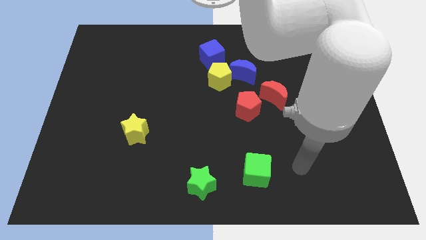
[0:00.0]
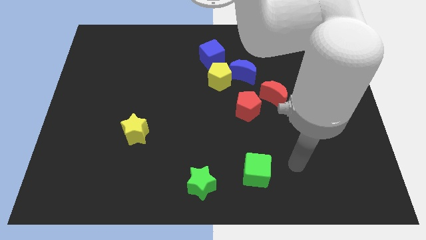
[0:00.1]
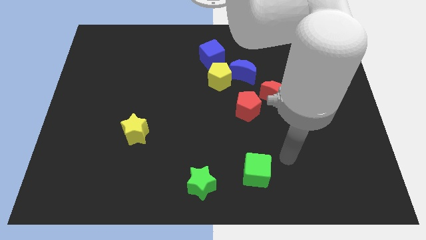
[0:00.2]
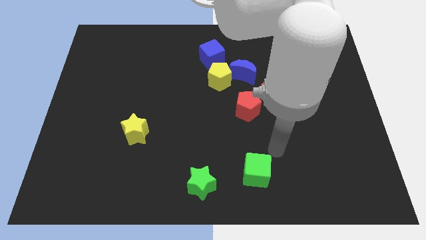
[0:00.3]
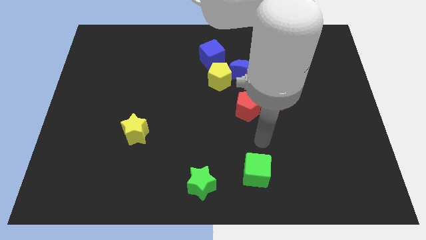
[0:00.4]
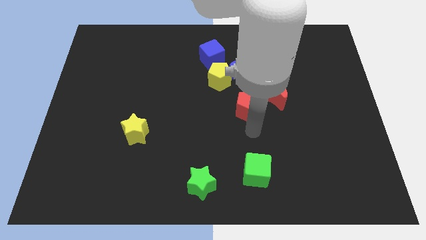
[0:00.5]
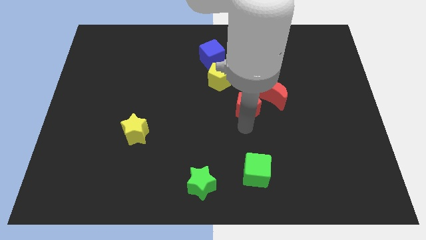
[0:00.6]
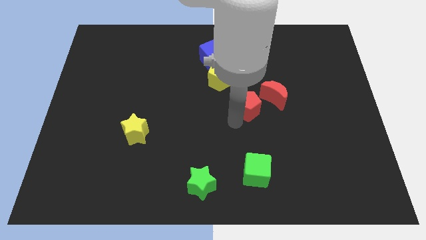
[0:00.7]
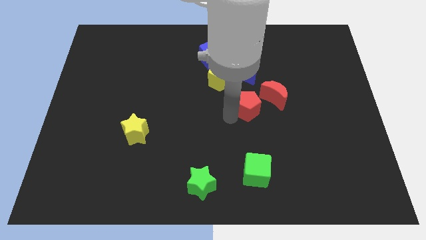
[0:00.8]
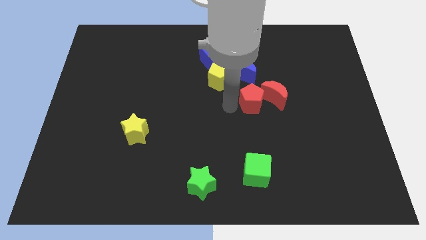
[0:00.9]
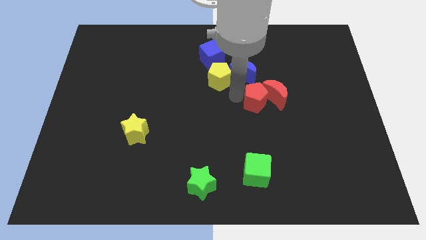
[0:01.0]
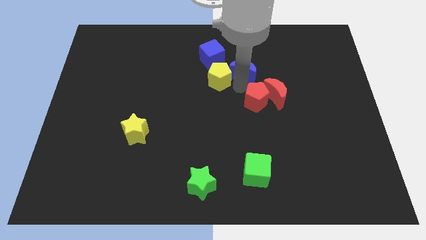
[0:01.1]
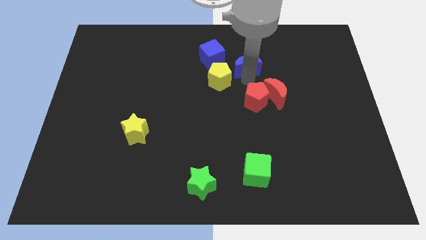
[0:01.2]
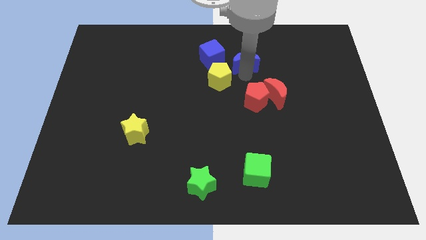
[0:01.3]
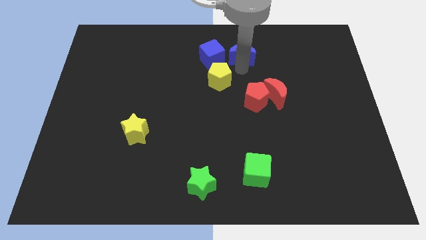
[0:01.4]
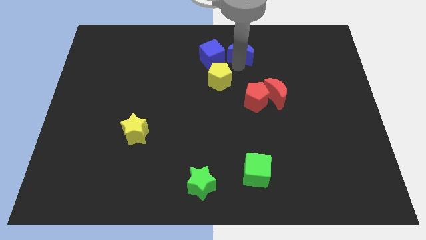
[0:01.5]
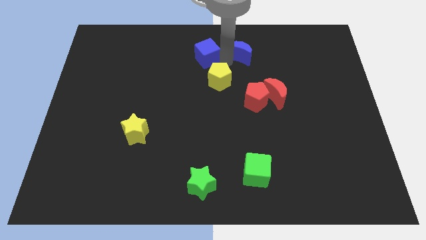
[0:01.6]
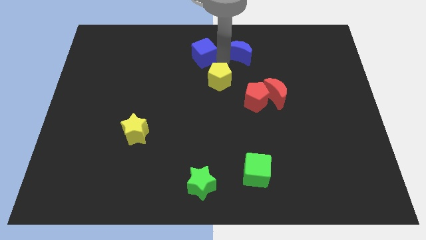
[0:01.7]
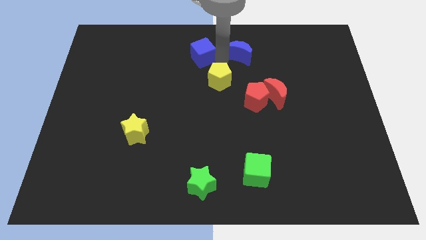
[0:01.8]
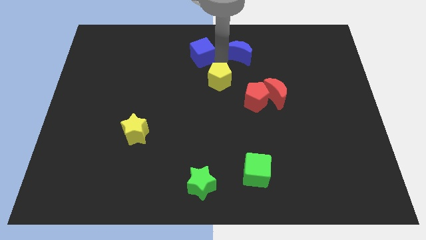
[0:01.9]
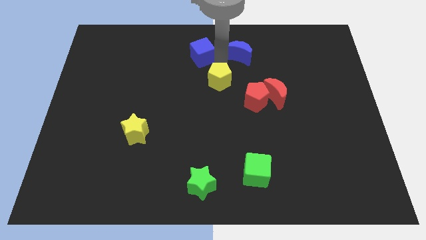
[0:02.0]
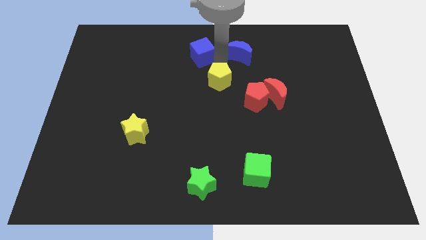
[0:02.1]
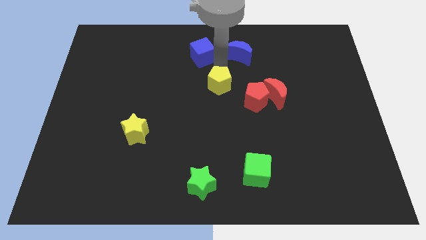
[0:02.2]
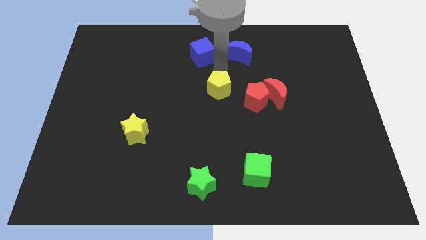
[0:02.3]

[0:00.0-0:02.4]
separate the yellow pentagon from the blue moon and blue cube

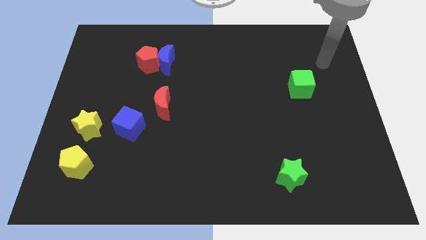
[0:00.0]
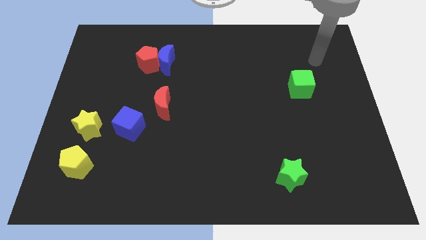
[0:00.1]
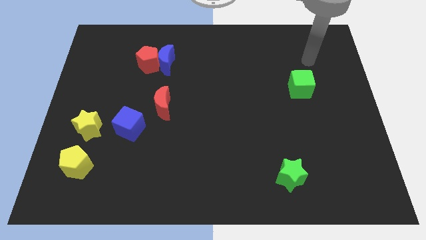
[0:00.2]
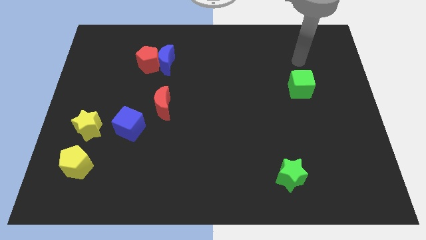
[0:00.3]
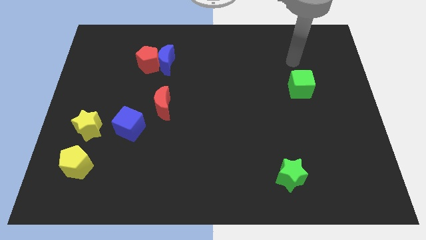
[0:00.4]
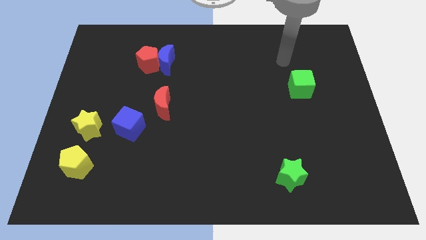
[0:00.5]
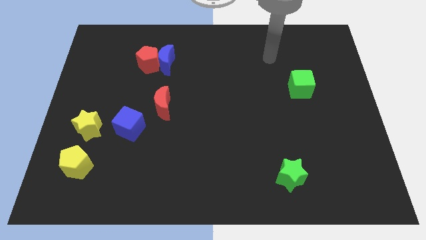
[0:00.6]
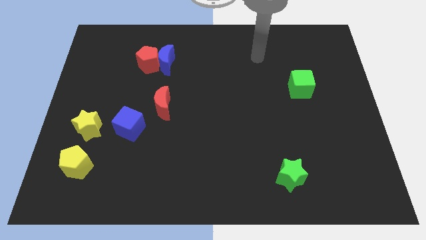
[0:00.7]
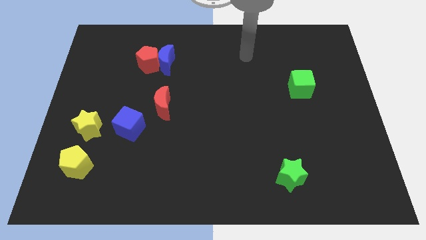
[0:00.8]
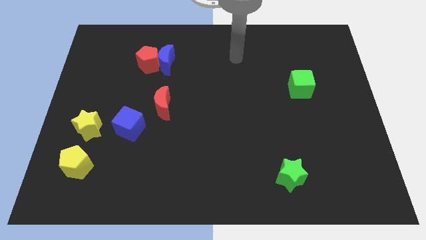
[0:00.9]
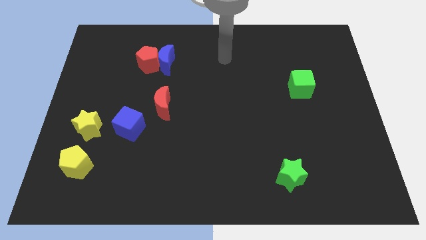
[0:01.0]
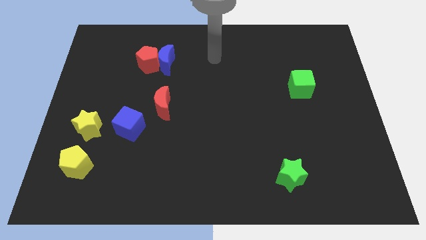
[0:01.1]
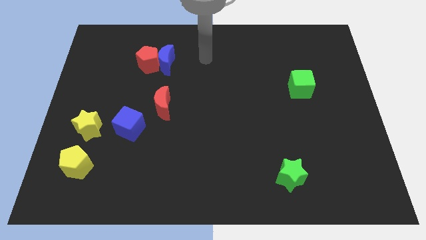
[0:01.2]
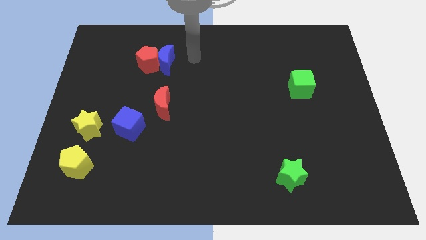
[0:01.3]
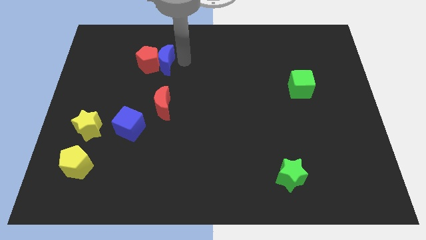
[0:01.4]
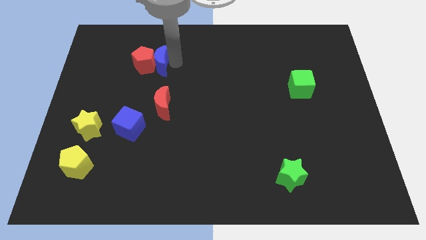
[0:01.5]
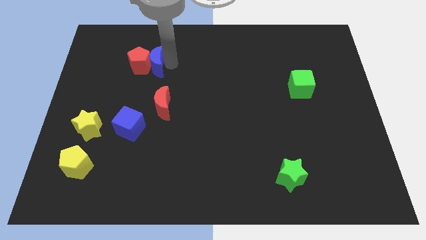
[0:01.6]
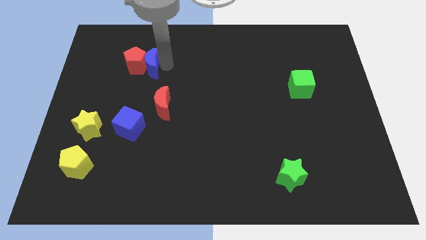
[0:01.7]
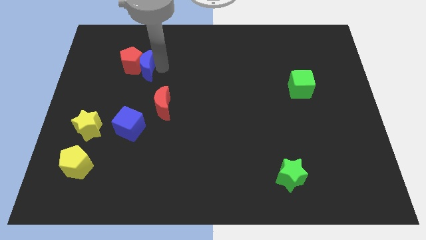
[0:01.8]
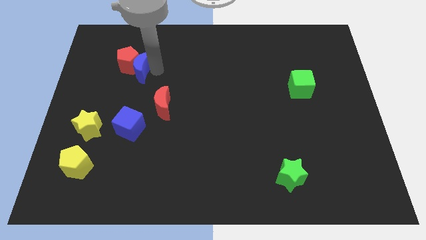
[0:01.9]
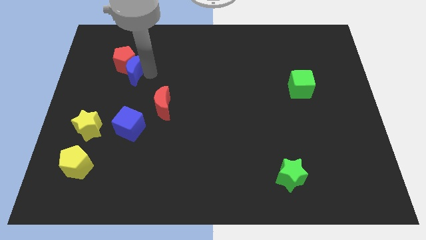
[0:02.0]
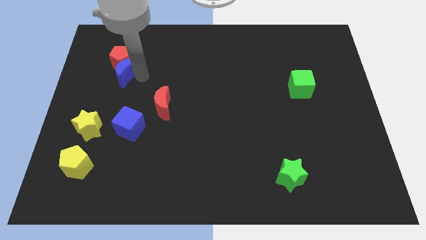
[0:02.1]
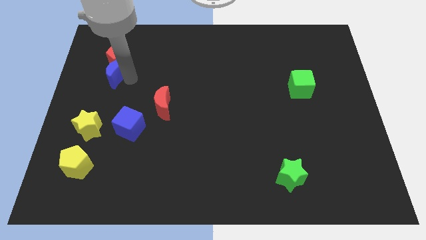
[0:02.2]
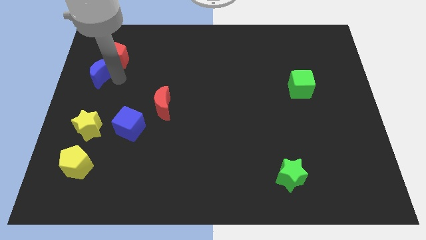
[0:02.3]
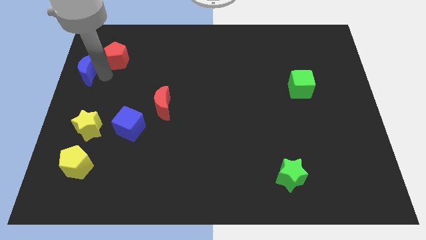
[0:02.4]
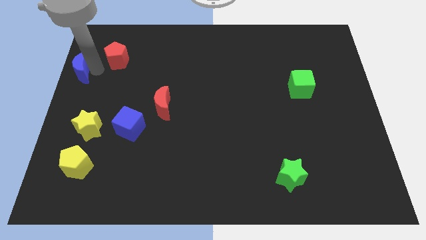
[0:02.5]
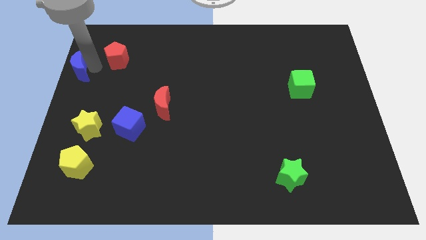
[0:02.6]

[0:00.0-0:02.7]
pull the red pentagon apart from the blue moon

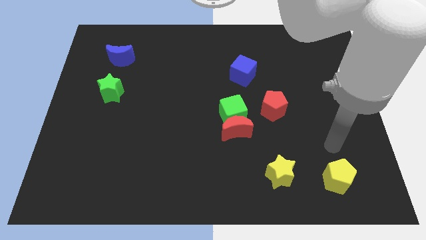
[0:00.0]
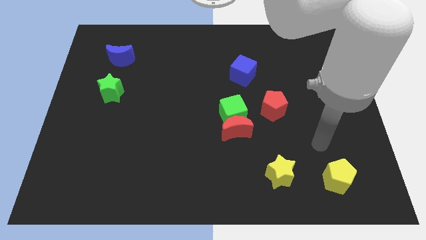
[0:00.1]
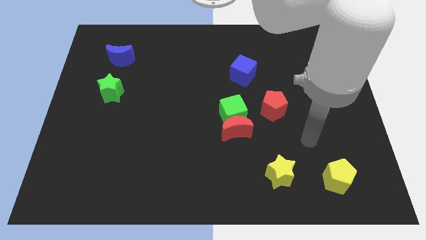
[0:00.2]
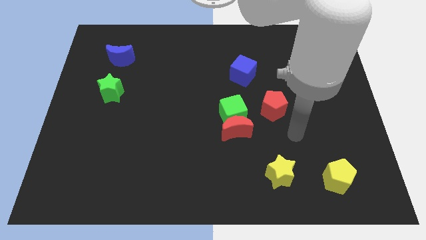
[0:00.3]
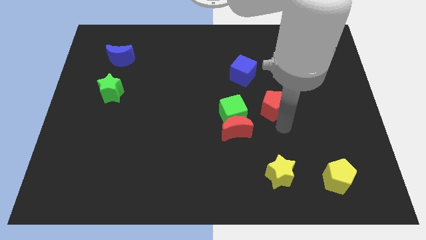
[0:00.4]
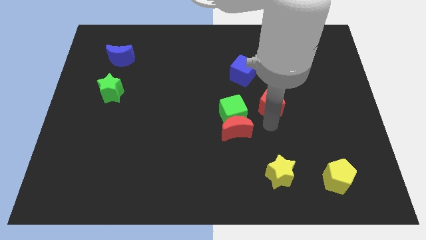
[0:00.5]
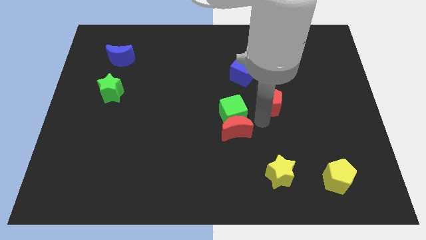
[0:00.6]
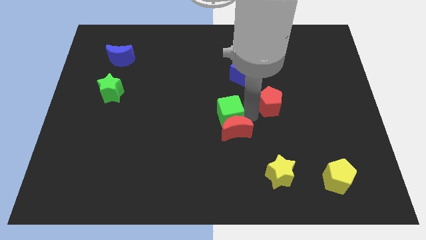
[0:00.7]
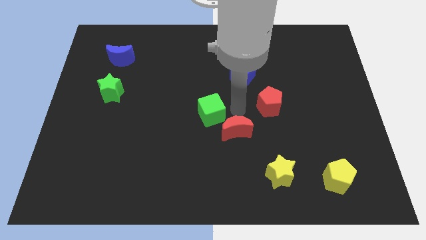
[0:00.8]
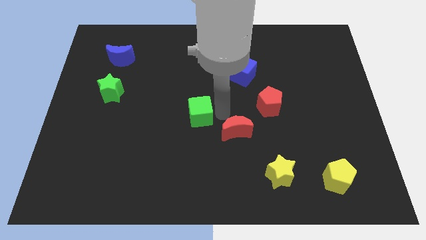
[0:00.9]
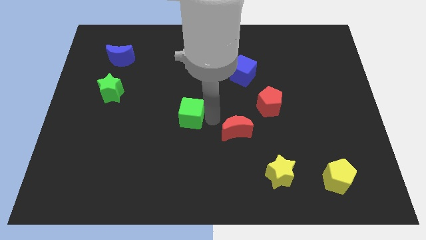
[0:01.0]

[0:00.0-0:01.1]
separate the red moon from the green cube

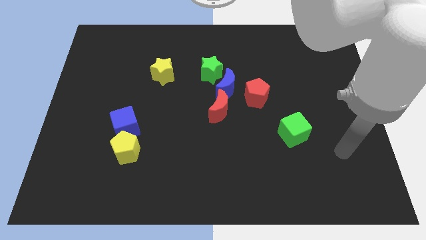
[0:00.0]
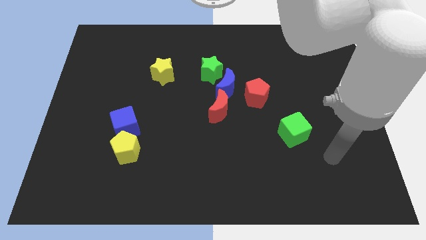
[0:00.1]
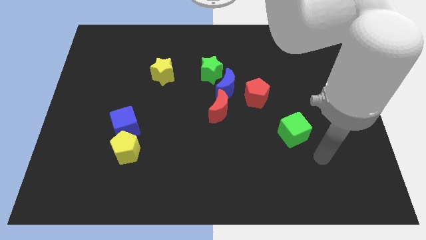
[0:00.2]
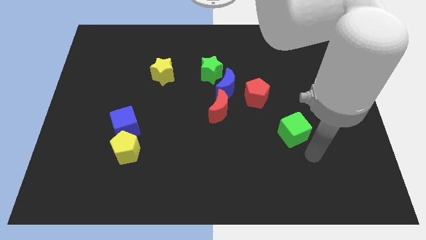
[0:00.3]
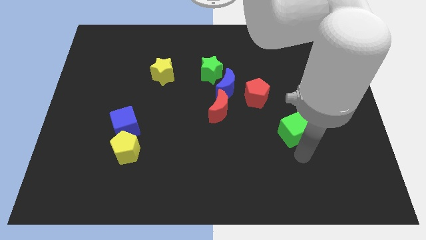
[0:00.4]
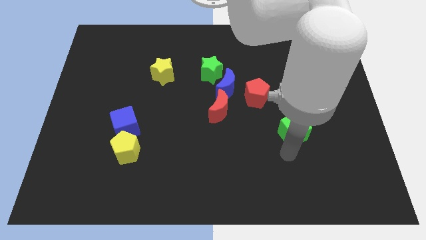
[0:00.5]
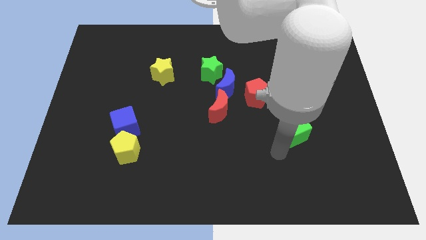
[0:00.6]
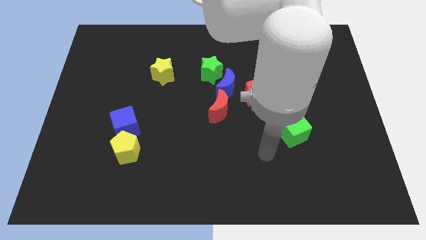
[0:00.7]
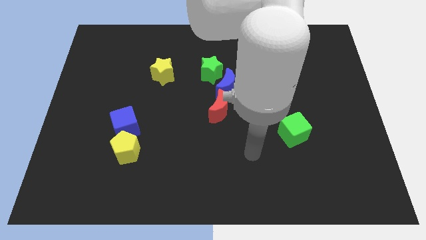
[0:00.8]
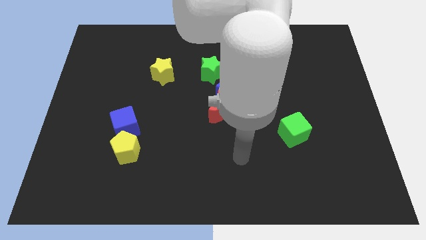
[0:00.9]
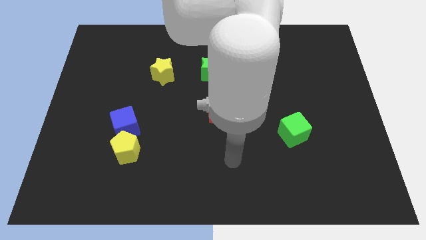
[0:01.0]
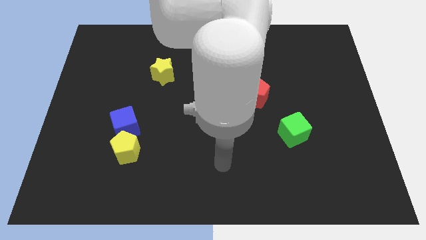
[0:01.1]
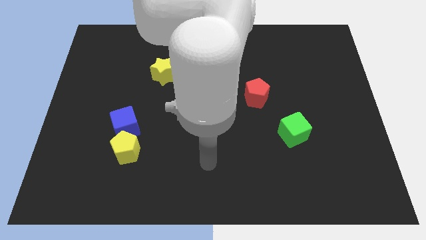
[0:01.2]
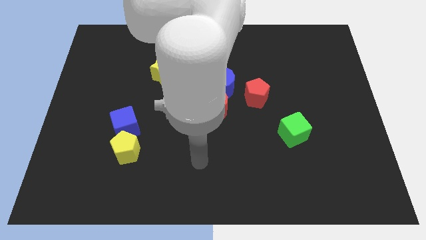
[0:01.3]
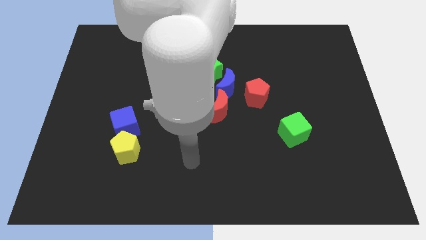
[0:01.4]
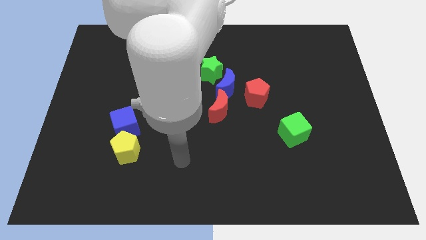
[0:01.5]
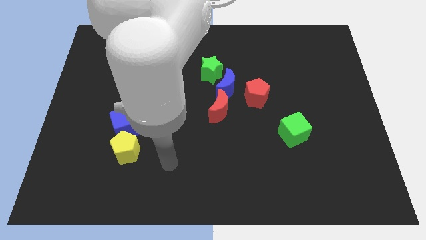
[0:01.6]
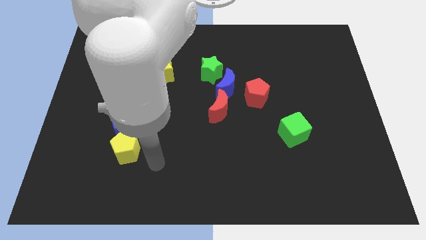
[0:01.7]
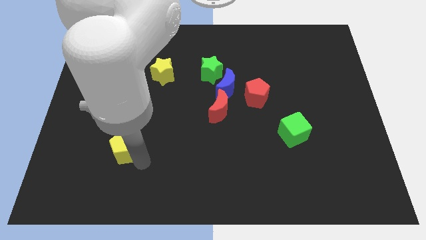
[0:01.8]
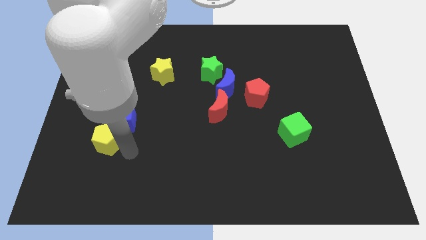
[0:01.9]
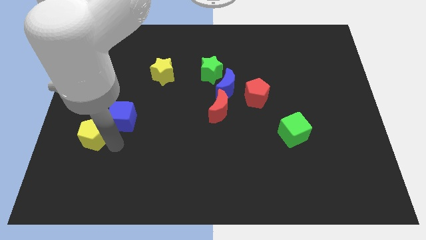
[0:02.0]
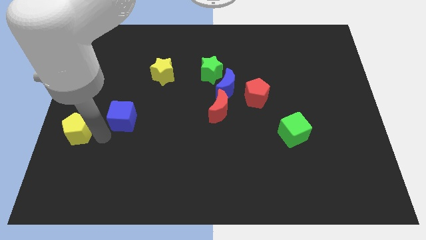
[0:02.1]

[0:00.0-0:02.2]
separate the blue cube from the yellow pentagon

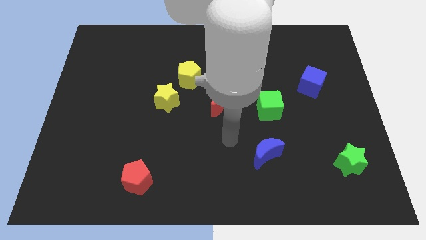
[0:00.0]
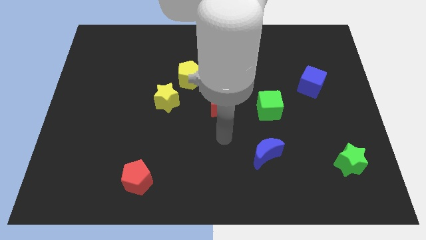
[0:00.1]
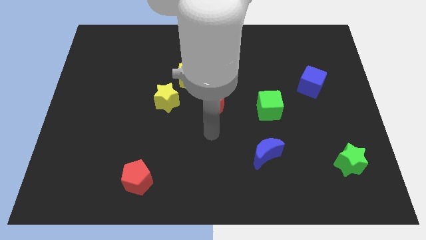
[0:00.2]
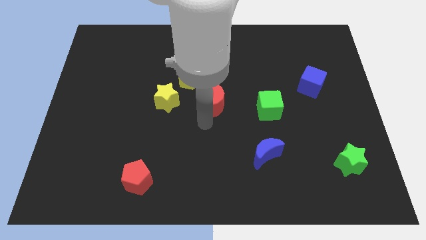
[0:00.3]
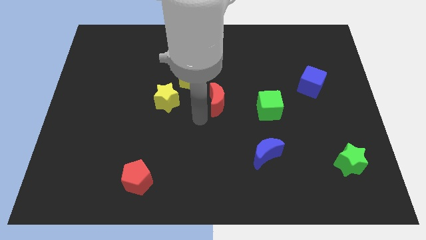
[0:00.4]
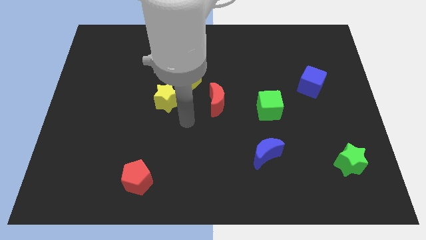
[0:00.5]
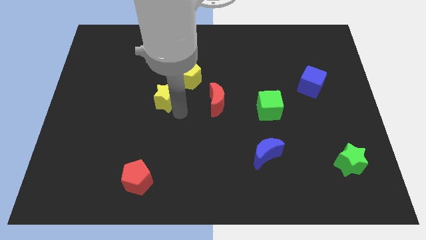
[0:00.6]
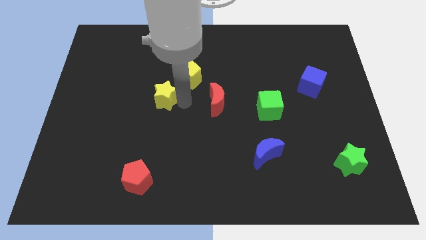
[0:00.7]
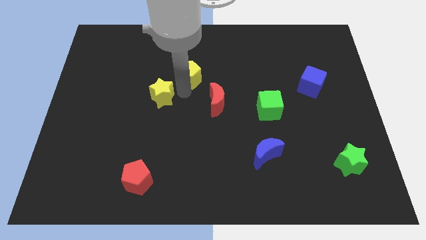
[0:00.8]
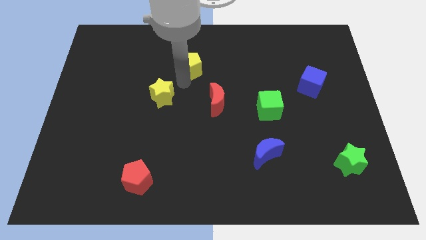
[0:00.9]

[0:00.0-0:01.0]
pull the yellow star apart from the yellow pentagon
